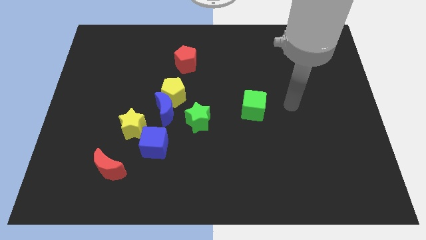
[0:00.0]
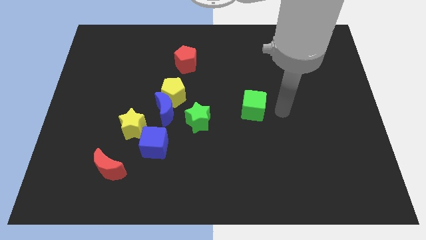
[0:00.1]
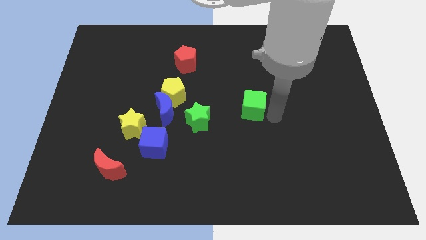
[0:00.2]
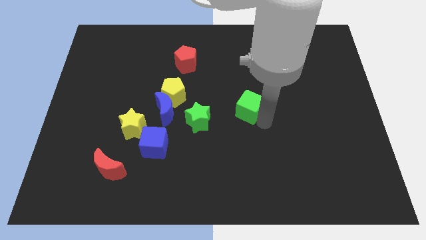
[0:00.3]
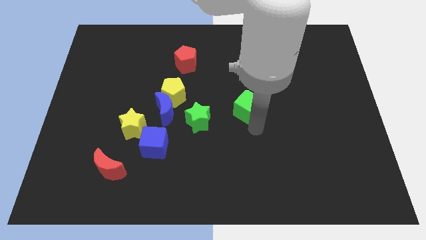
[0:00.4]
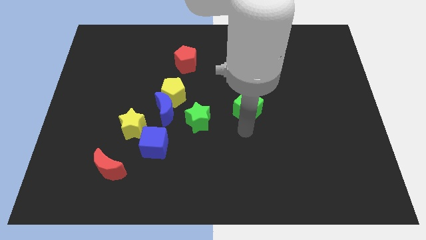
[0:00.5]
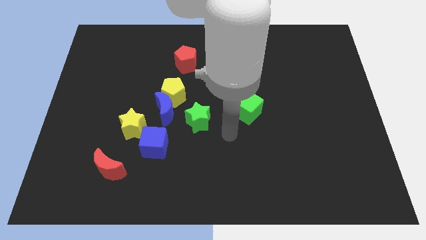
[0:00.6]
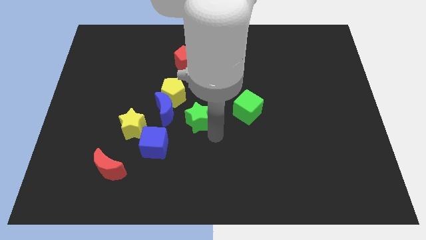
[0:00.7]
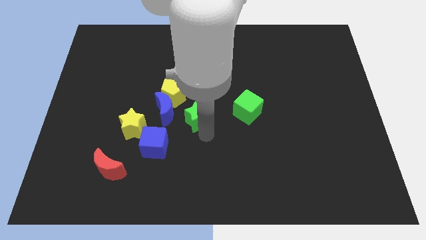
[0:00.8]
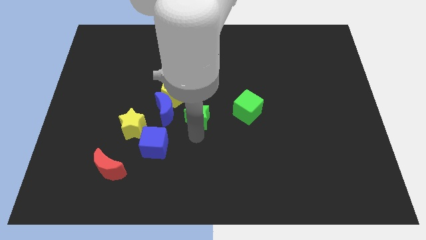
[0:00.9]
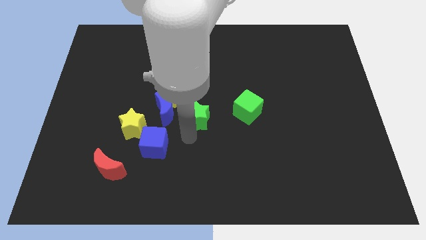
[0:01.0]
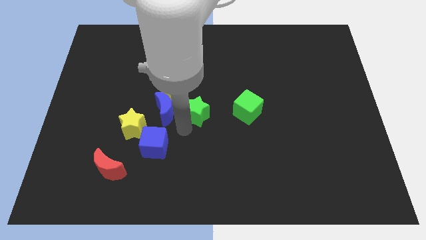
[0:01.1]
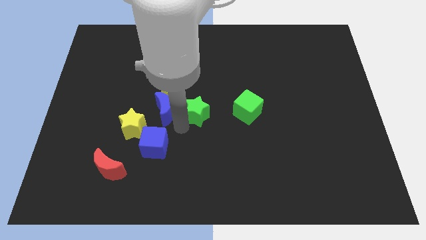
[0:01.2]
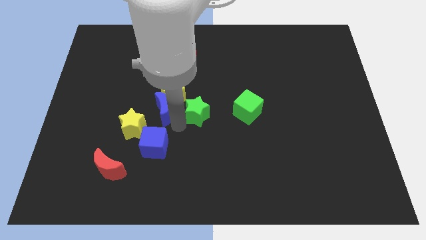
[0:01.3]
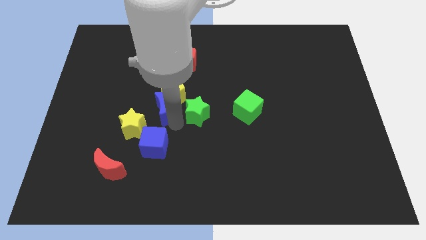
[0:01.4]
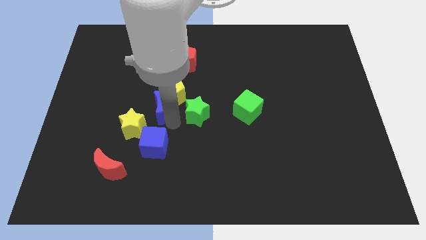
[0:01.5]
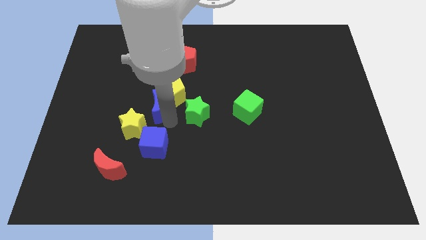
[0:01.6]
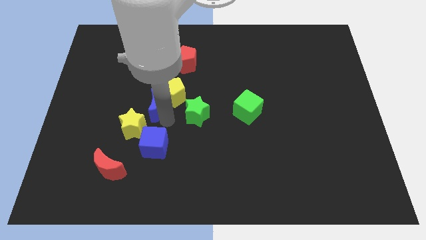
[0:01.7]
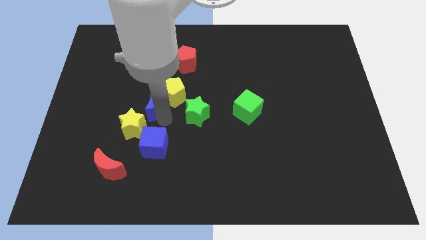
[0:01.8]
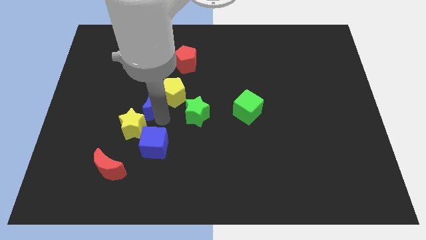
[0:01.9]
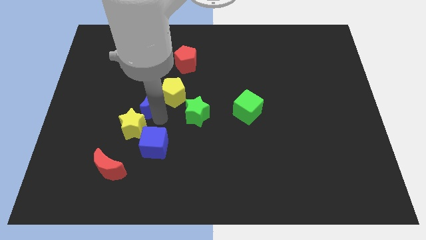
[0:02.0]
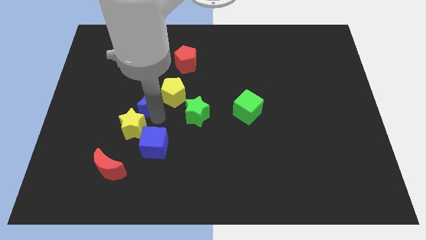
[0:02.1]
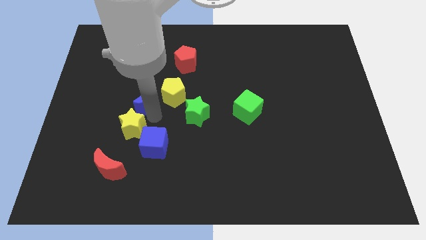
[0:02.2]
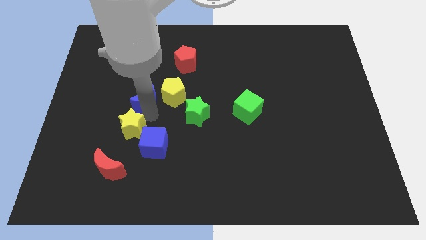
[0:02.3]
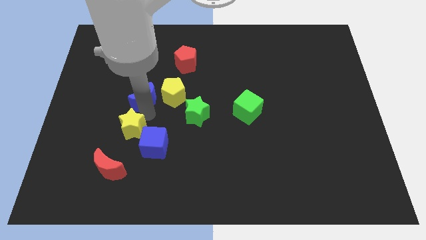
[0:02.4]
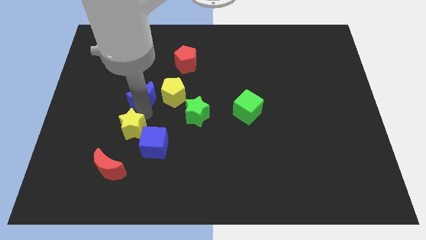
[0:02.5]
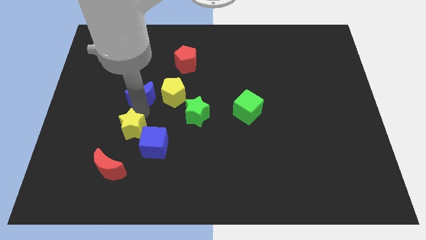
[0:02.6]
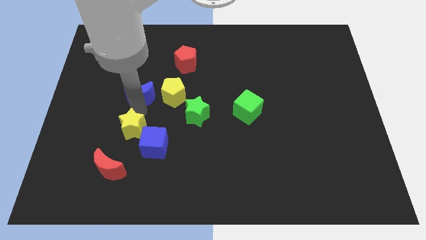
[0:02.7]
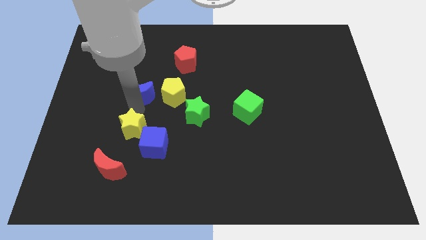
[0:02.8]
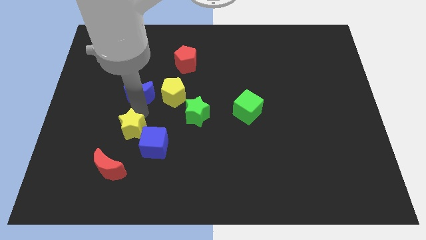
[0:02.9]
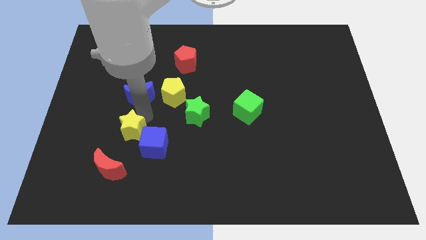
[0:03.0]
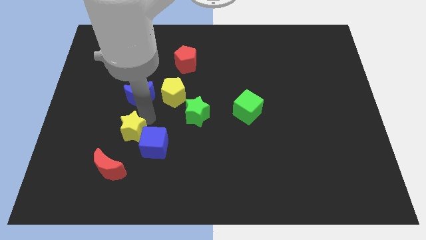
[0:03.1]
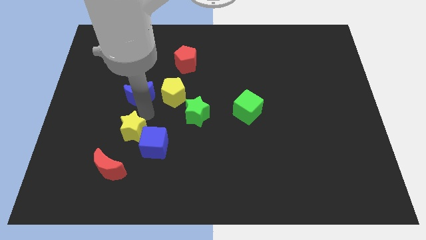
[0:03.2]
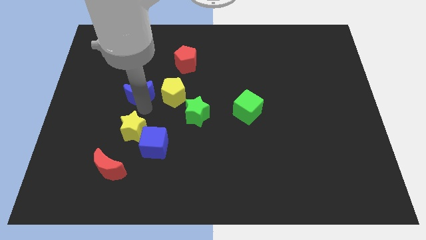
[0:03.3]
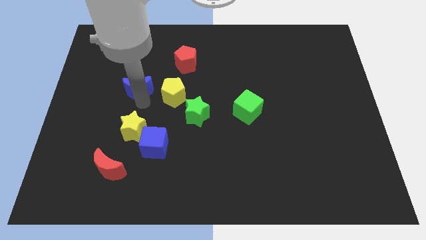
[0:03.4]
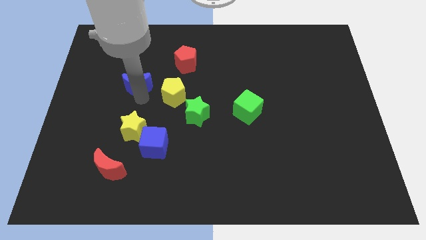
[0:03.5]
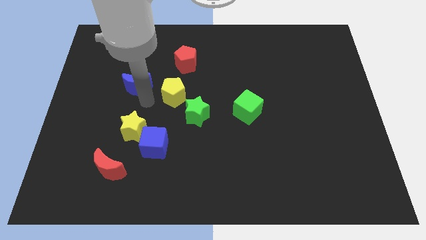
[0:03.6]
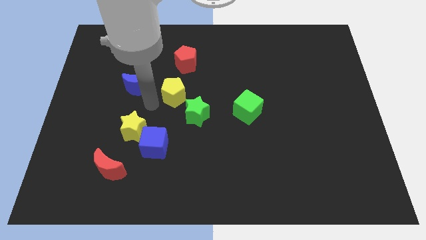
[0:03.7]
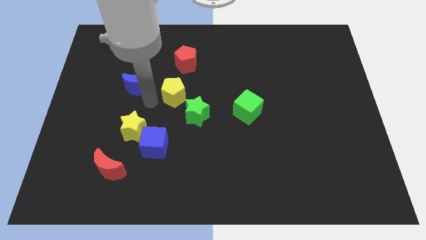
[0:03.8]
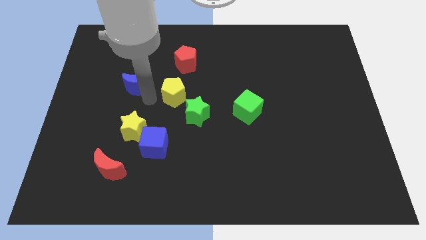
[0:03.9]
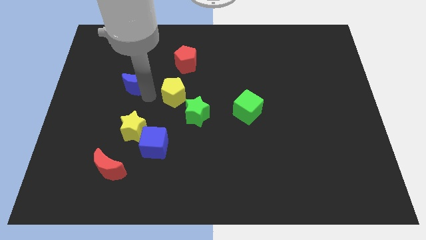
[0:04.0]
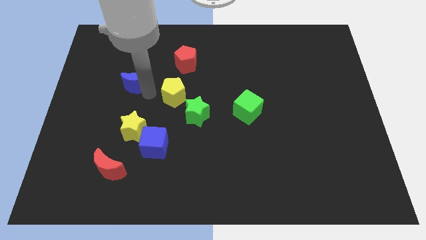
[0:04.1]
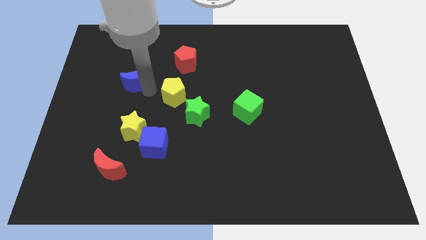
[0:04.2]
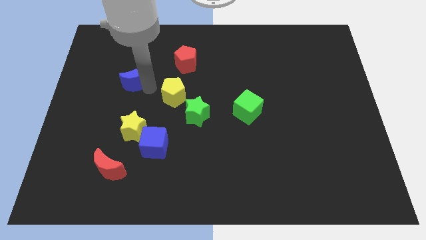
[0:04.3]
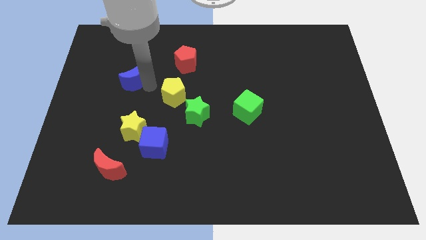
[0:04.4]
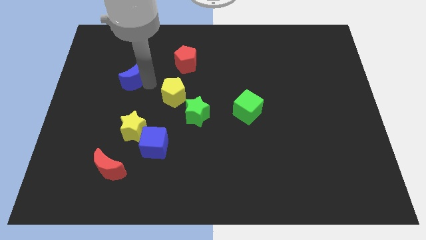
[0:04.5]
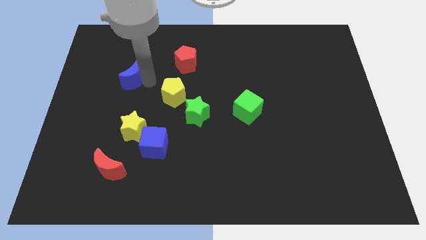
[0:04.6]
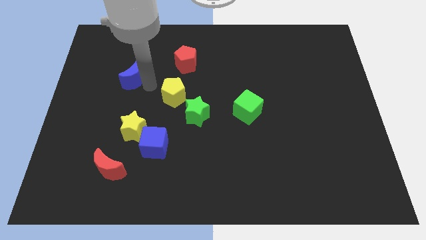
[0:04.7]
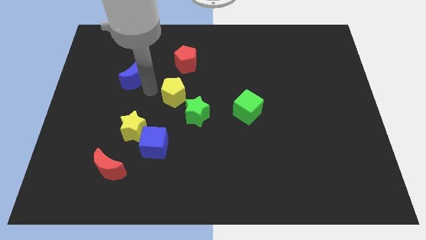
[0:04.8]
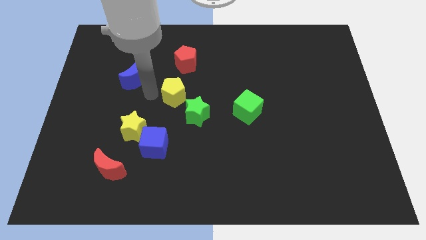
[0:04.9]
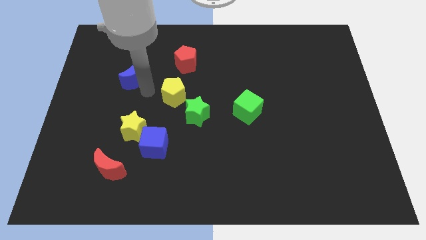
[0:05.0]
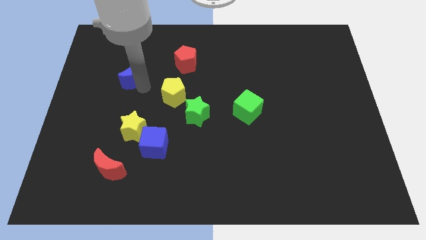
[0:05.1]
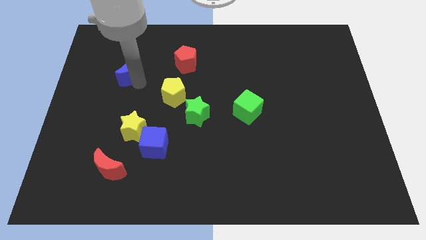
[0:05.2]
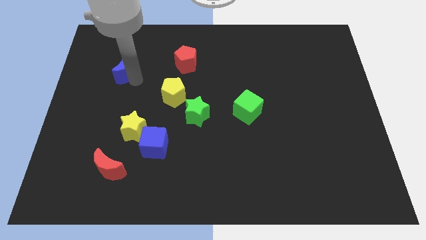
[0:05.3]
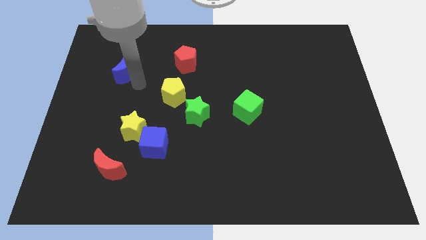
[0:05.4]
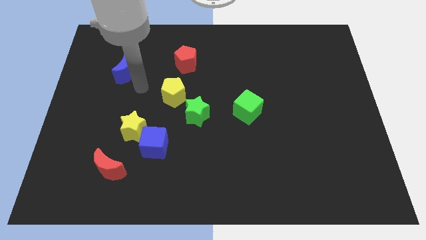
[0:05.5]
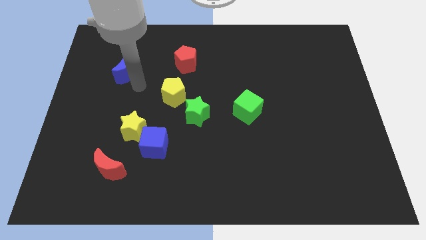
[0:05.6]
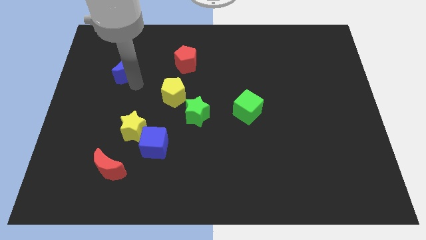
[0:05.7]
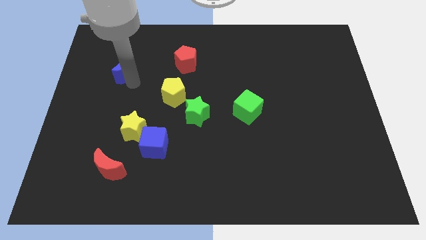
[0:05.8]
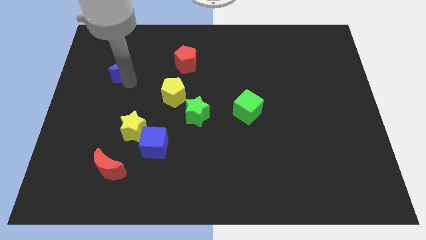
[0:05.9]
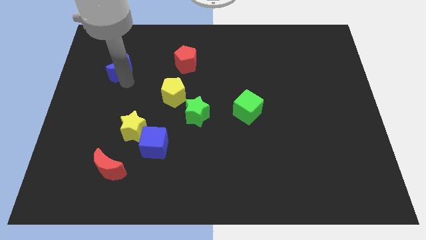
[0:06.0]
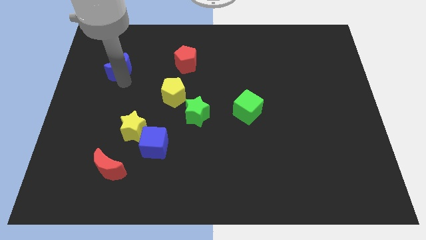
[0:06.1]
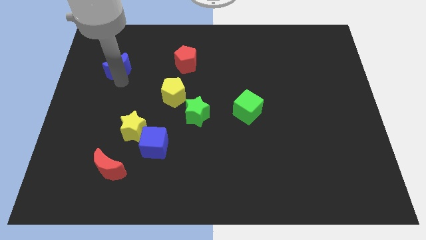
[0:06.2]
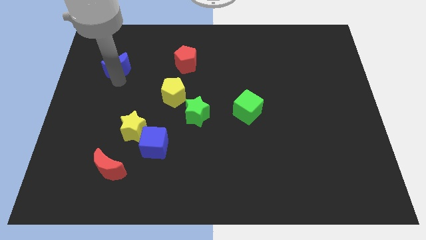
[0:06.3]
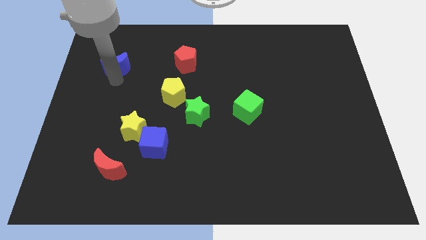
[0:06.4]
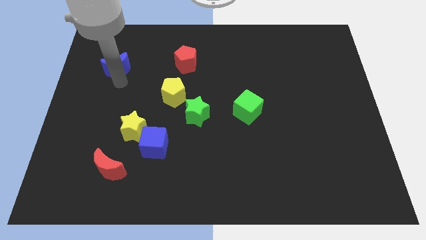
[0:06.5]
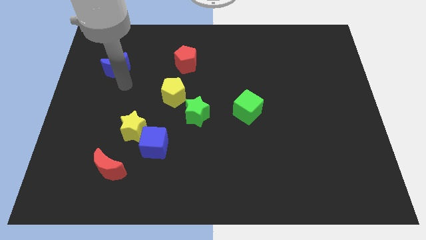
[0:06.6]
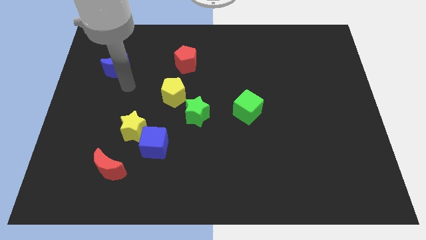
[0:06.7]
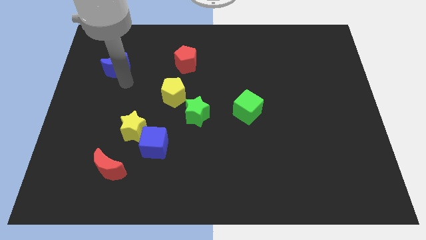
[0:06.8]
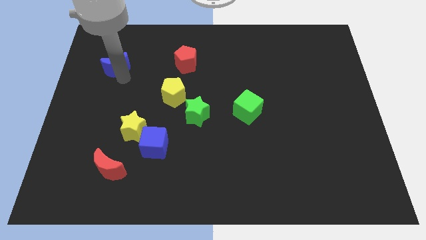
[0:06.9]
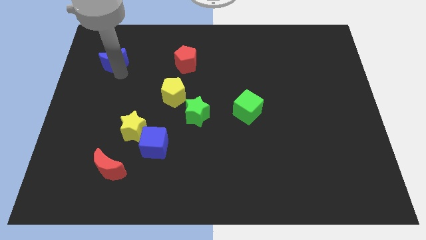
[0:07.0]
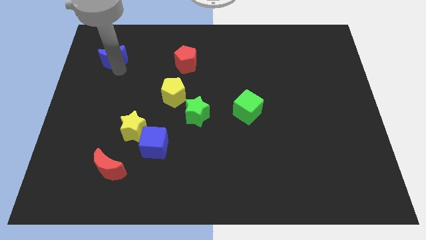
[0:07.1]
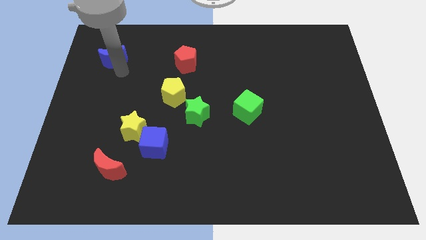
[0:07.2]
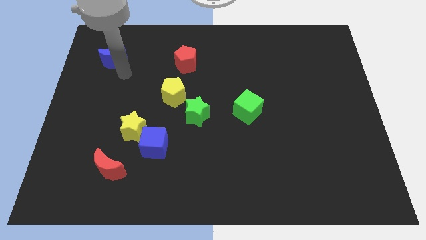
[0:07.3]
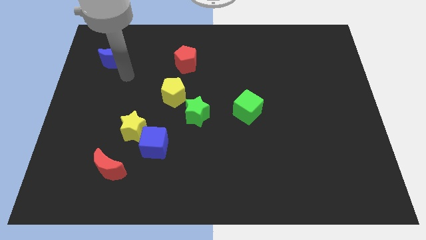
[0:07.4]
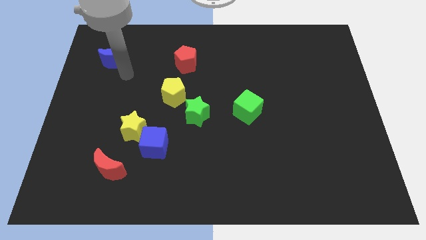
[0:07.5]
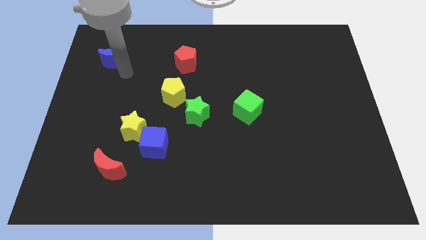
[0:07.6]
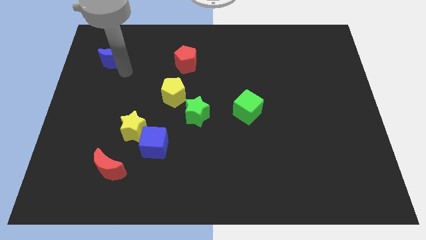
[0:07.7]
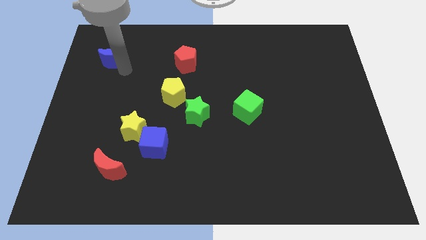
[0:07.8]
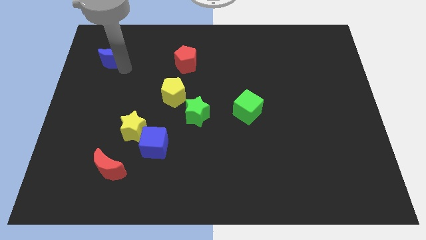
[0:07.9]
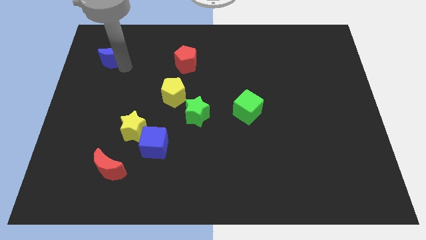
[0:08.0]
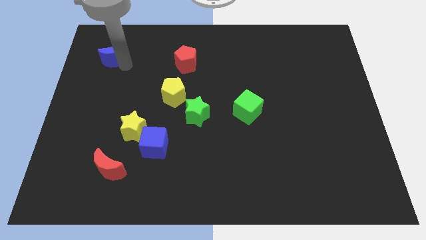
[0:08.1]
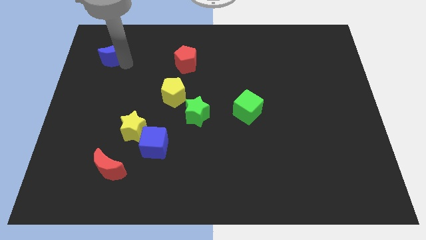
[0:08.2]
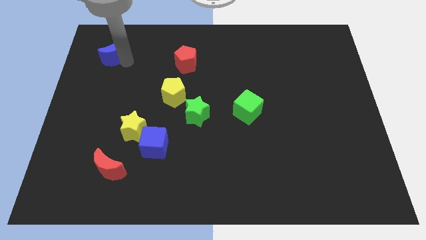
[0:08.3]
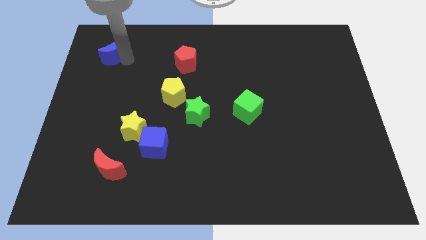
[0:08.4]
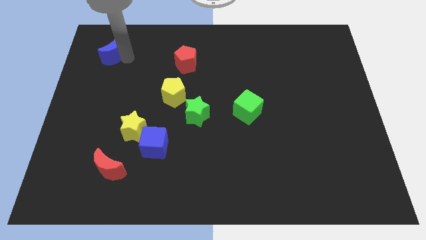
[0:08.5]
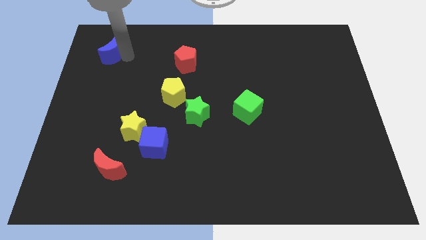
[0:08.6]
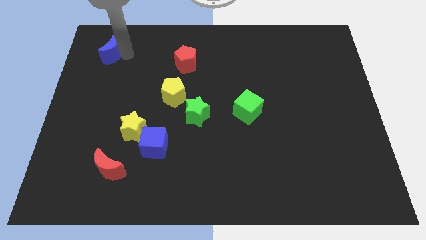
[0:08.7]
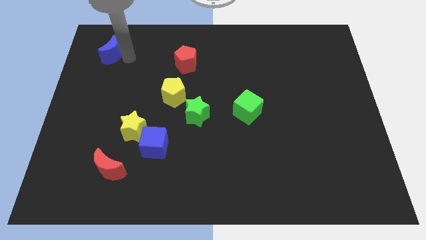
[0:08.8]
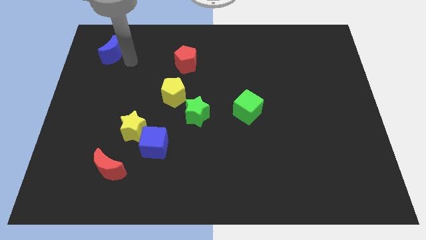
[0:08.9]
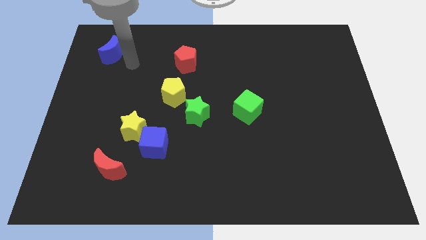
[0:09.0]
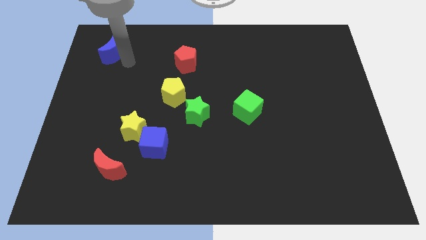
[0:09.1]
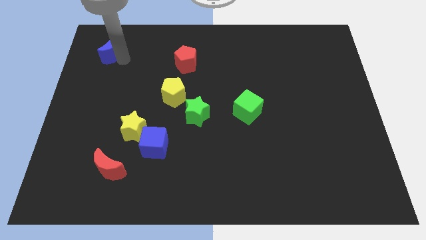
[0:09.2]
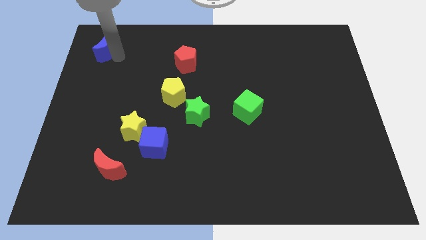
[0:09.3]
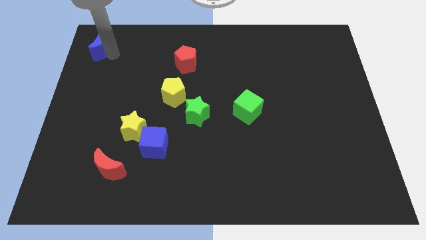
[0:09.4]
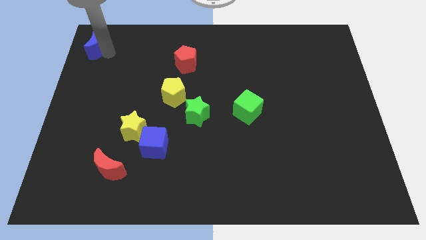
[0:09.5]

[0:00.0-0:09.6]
push the blue moon to the top left corner
